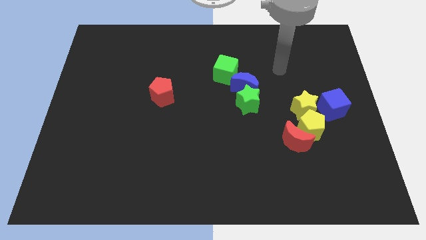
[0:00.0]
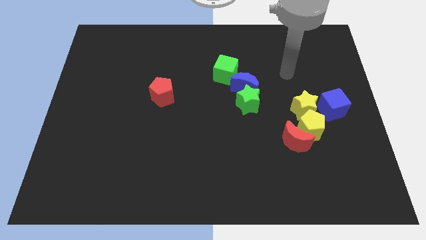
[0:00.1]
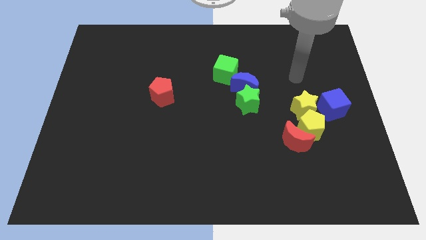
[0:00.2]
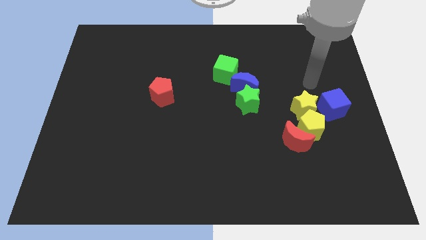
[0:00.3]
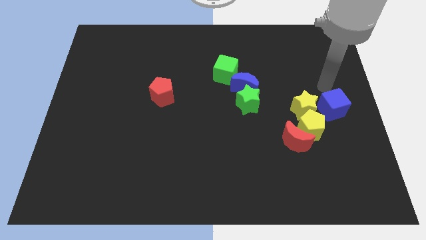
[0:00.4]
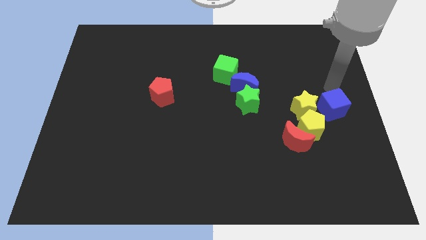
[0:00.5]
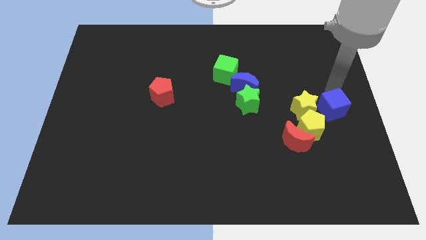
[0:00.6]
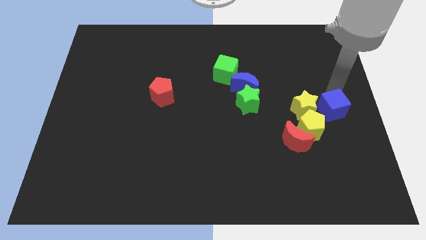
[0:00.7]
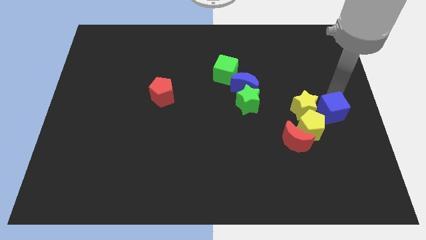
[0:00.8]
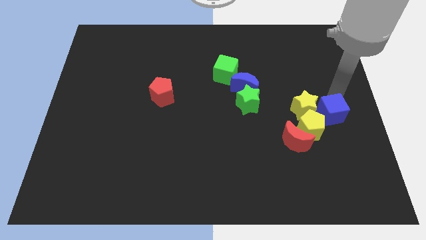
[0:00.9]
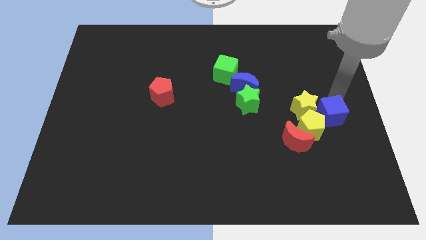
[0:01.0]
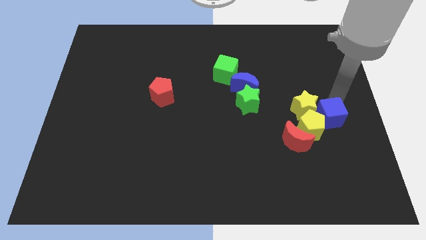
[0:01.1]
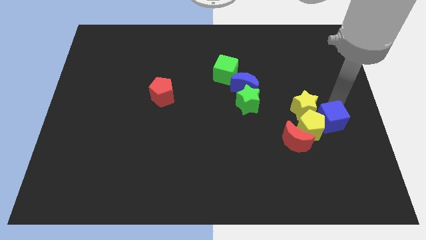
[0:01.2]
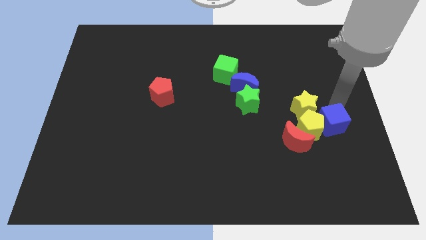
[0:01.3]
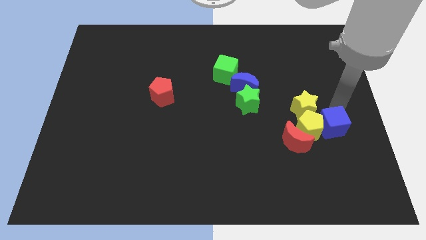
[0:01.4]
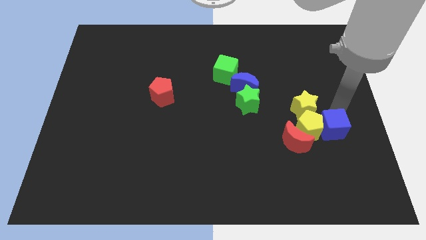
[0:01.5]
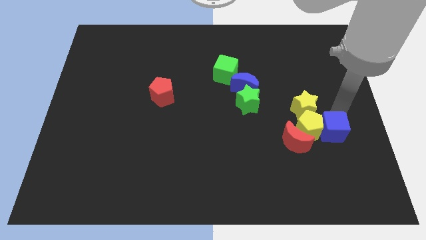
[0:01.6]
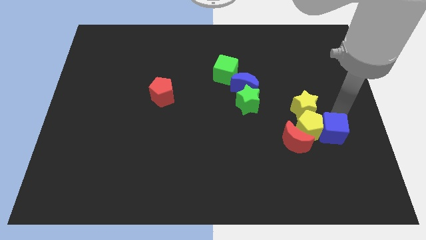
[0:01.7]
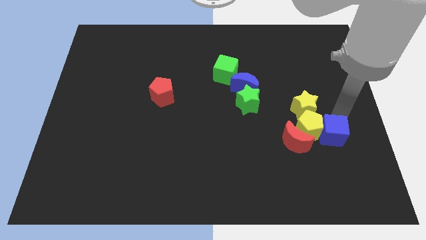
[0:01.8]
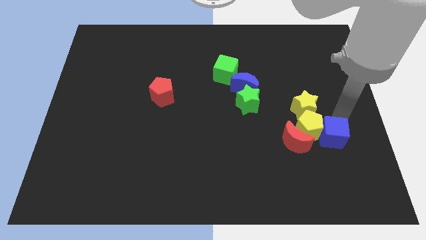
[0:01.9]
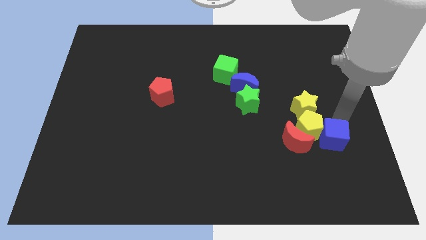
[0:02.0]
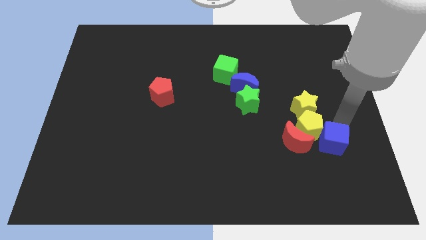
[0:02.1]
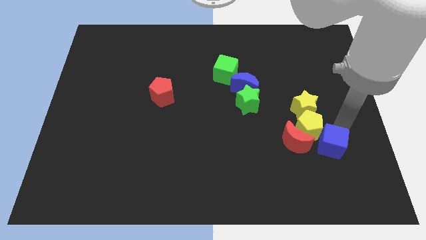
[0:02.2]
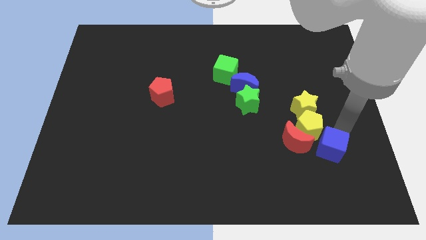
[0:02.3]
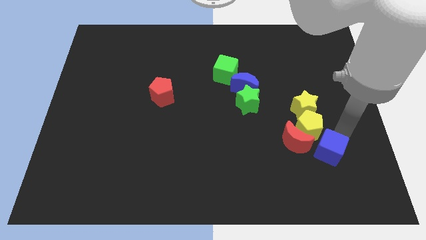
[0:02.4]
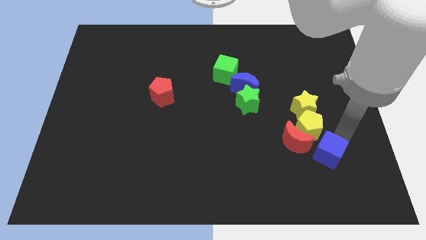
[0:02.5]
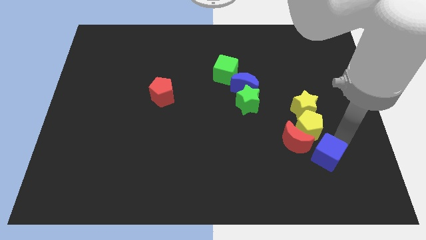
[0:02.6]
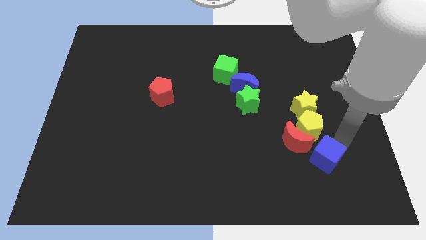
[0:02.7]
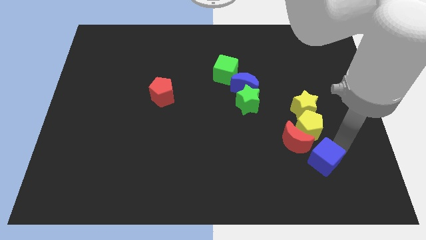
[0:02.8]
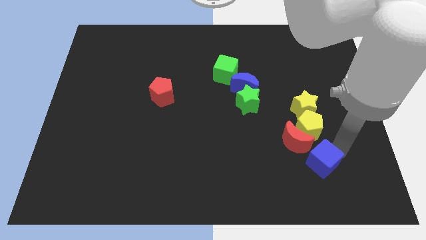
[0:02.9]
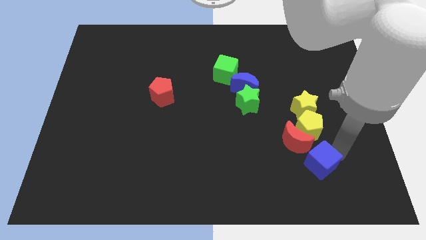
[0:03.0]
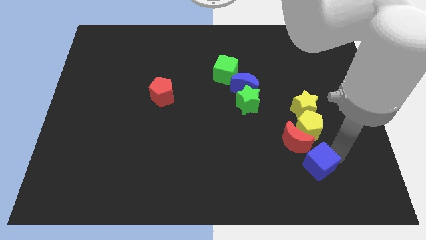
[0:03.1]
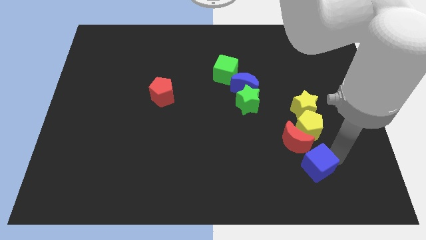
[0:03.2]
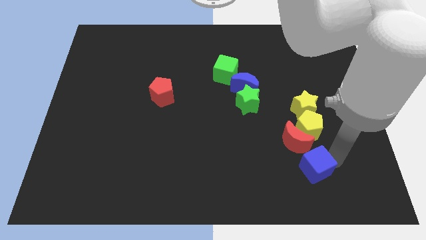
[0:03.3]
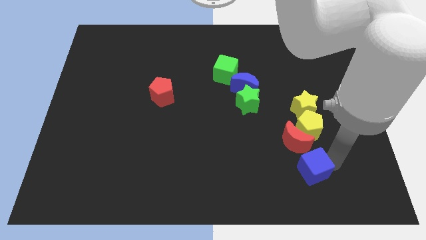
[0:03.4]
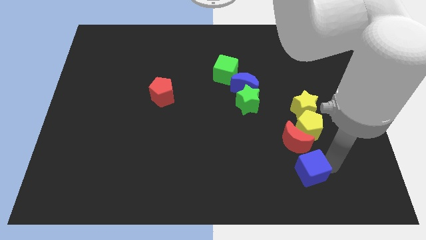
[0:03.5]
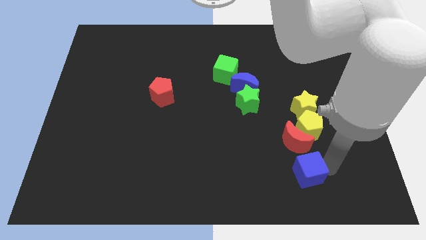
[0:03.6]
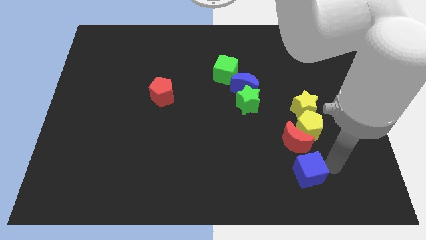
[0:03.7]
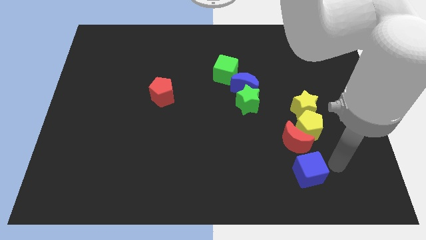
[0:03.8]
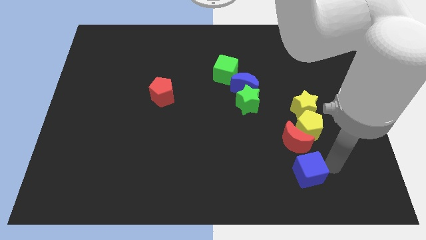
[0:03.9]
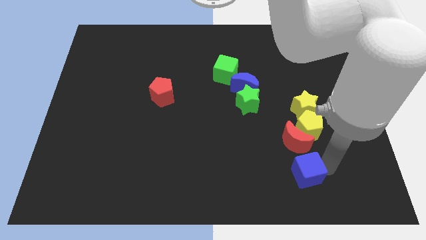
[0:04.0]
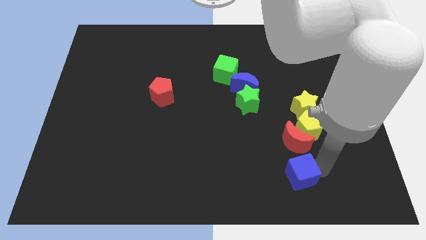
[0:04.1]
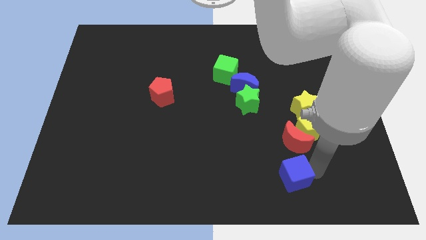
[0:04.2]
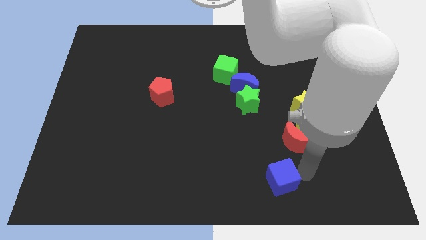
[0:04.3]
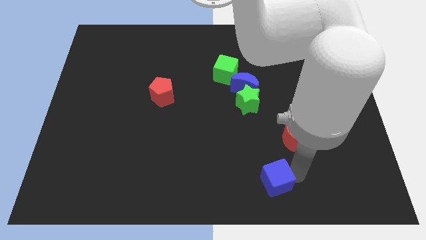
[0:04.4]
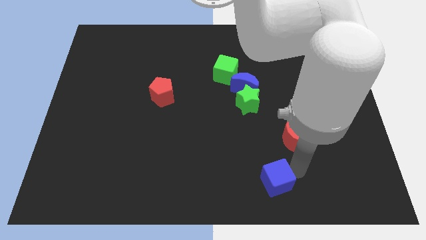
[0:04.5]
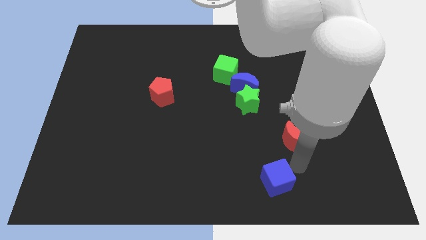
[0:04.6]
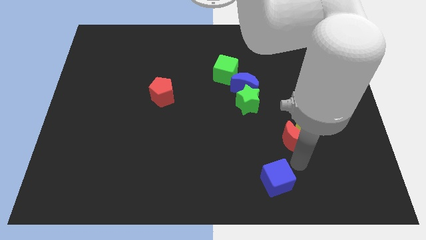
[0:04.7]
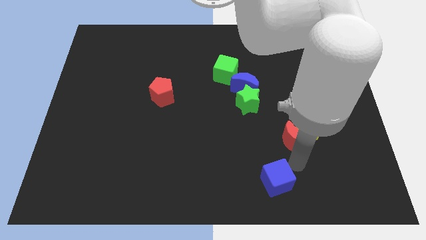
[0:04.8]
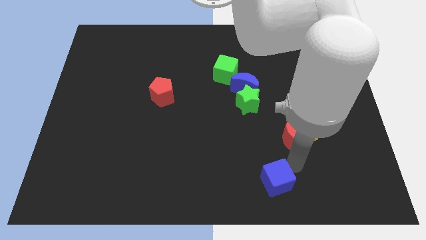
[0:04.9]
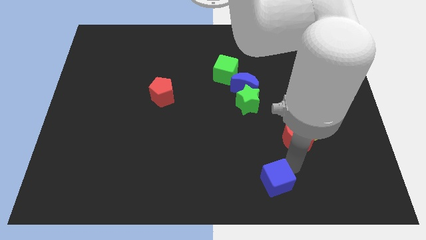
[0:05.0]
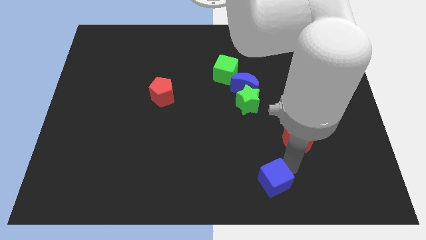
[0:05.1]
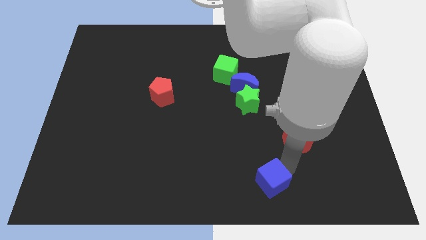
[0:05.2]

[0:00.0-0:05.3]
push the blue cube to the bottom

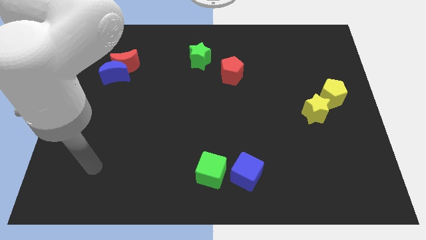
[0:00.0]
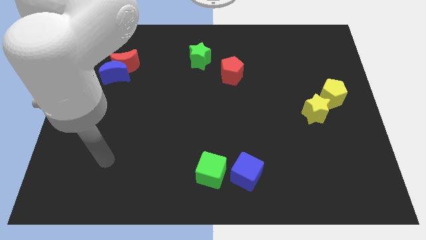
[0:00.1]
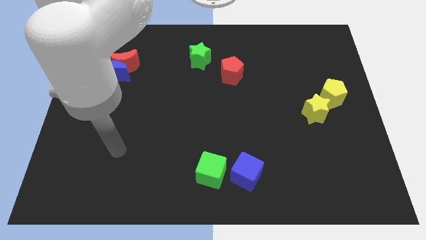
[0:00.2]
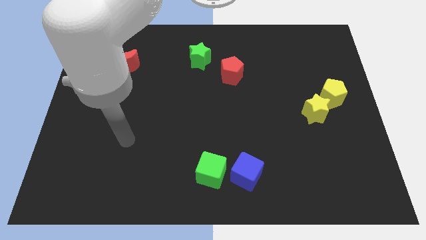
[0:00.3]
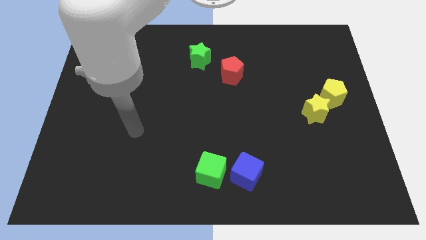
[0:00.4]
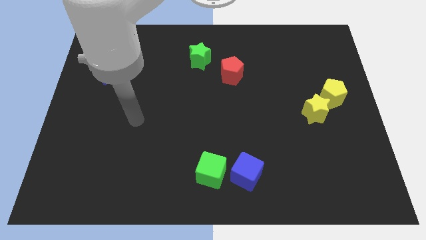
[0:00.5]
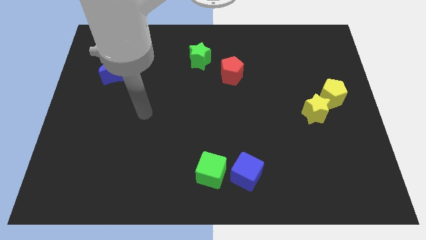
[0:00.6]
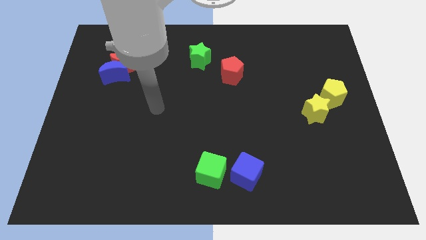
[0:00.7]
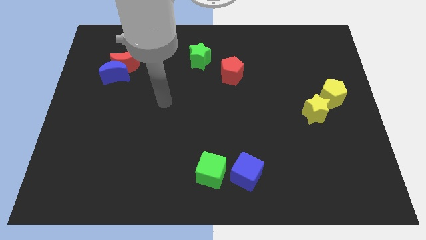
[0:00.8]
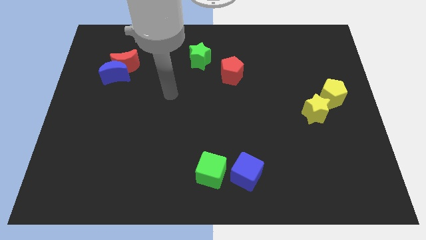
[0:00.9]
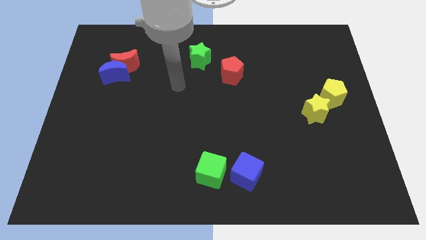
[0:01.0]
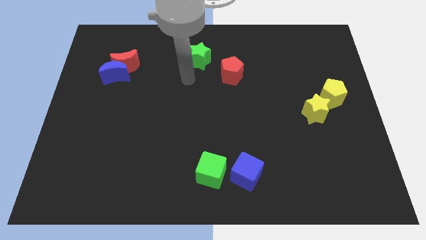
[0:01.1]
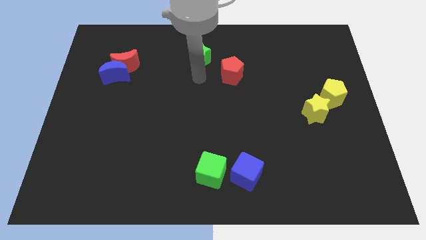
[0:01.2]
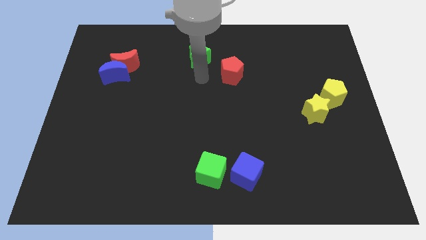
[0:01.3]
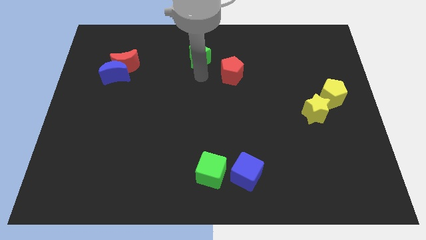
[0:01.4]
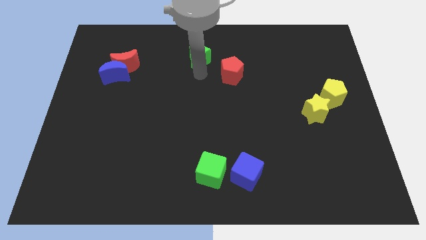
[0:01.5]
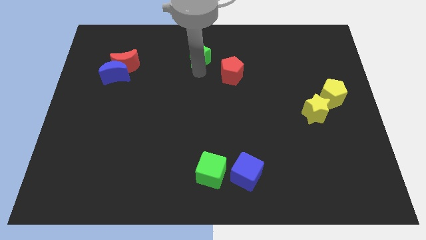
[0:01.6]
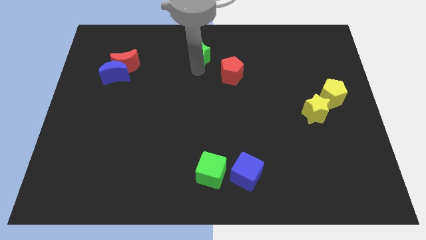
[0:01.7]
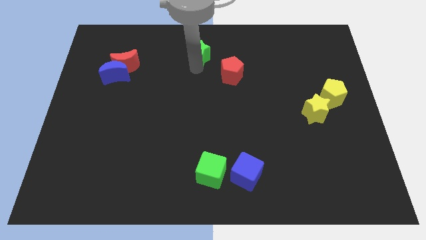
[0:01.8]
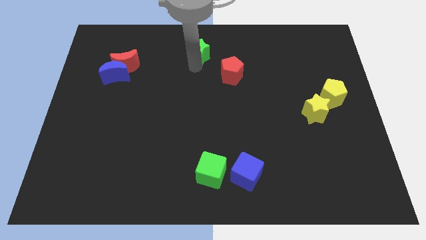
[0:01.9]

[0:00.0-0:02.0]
put the green star to the towards your base
